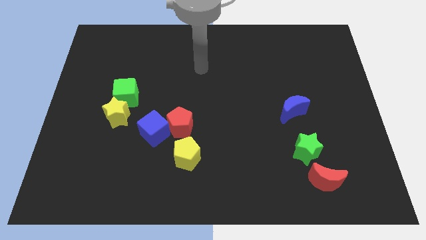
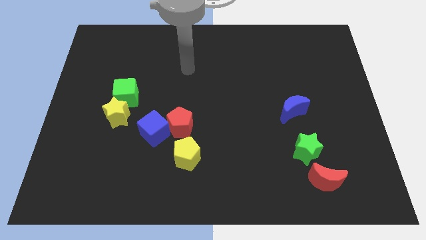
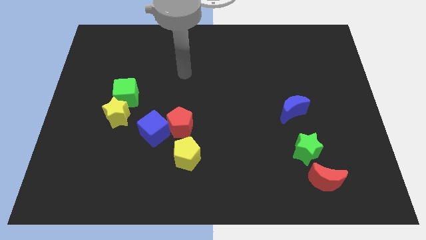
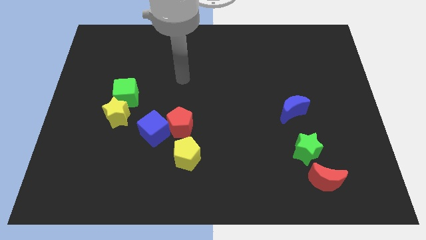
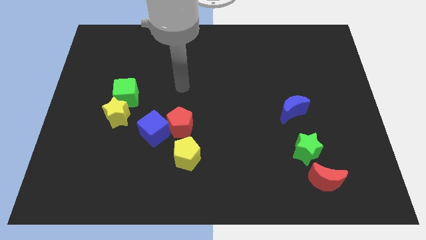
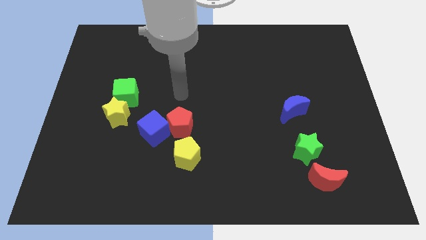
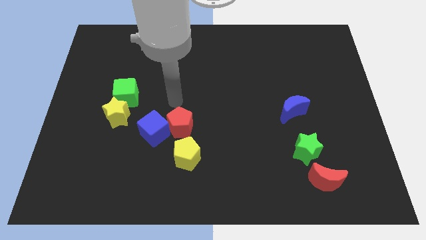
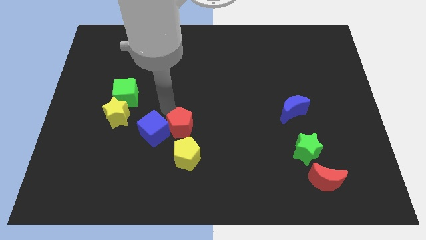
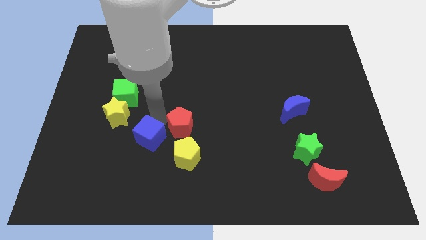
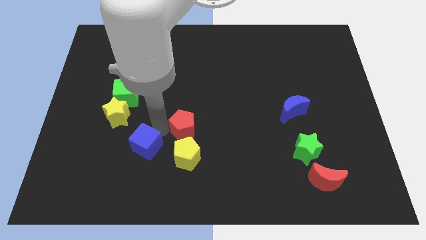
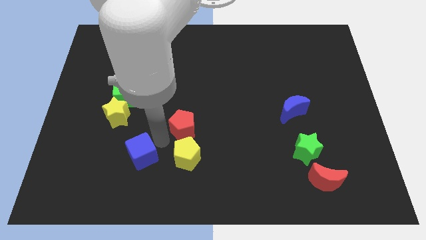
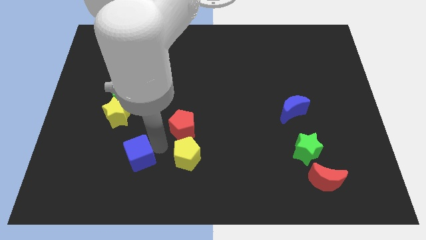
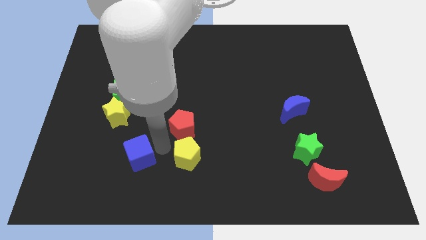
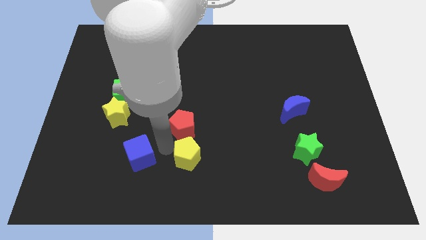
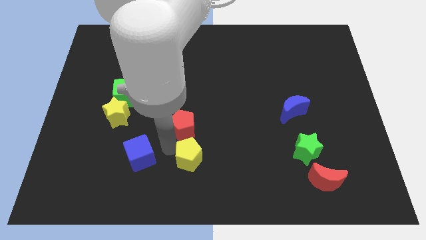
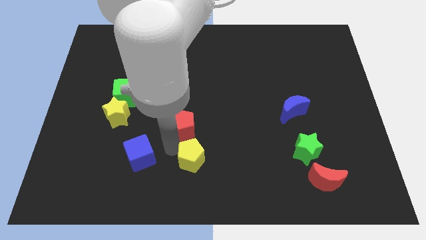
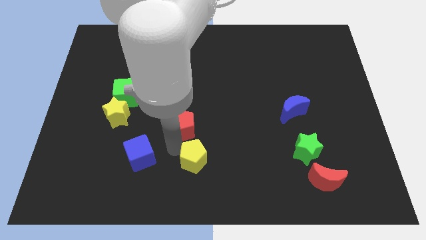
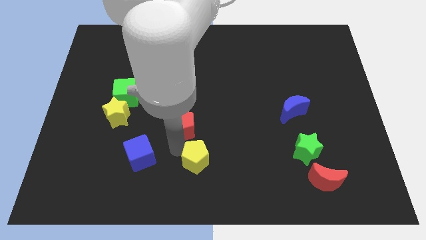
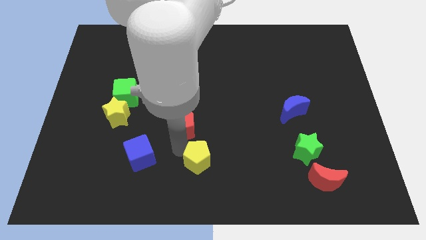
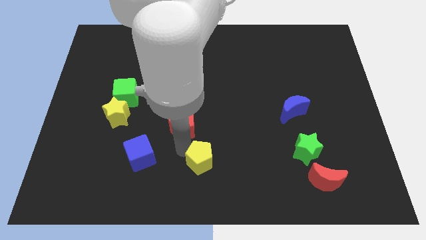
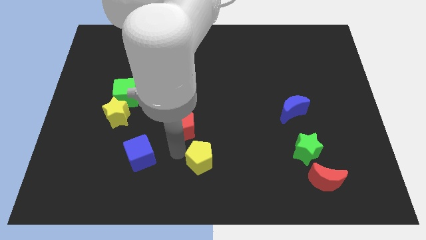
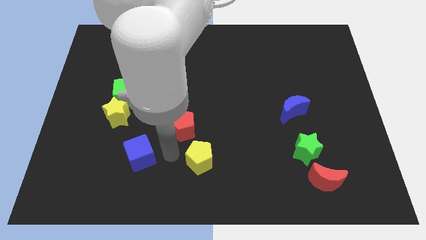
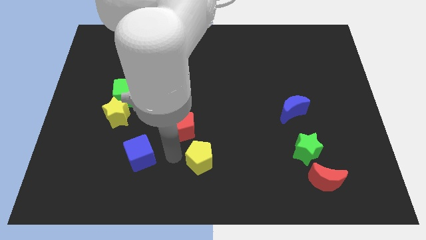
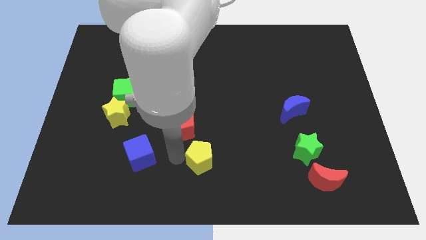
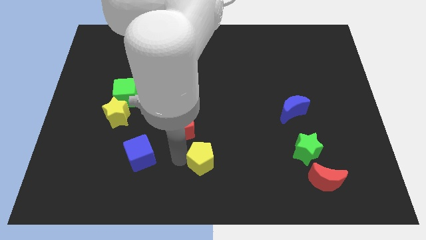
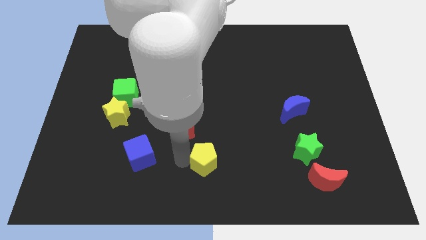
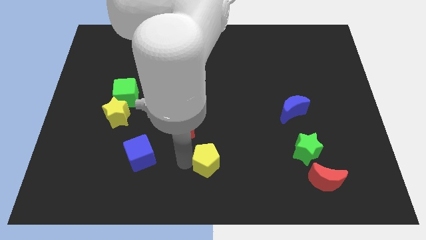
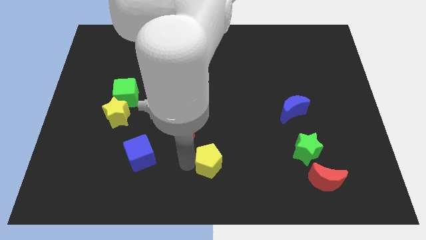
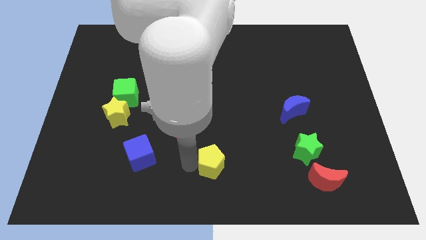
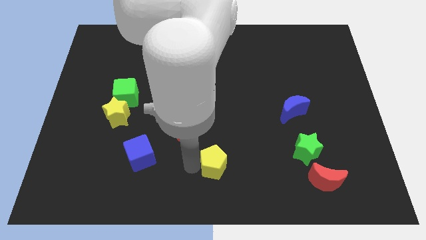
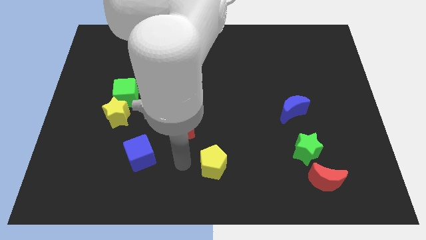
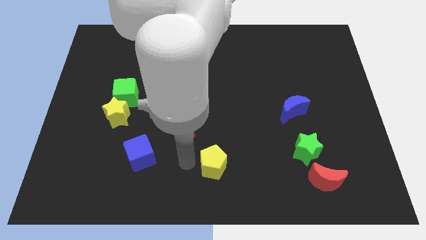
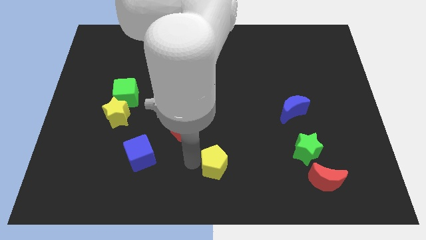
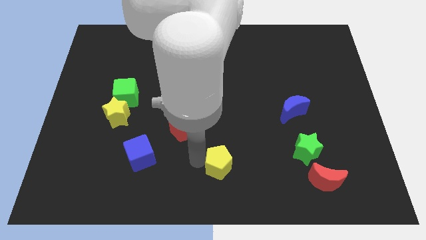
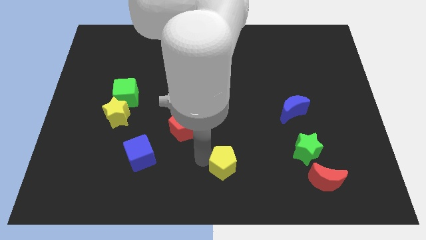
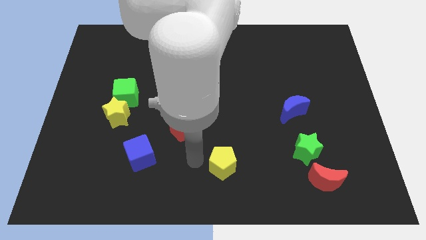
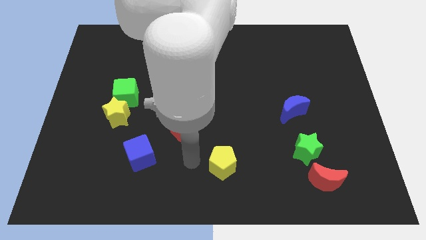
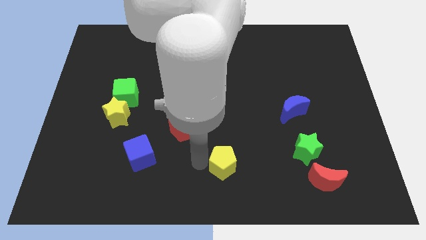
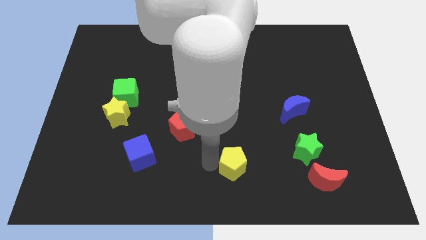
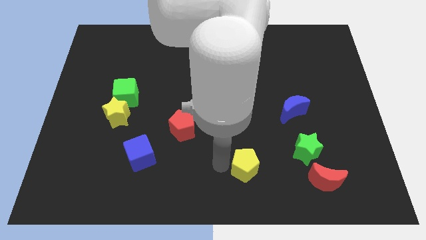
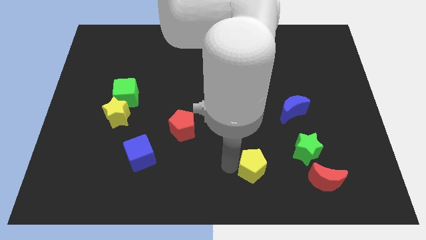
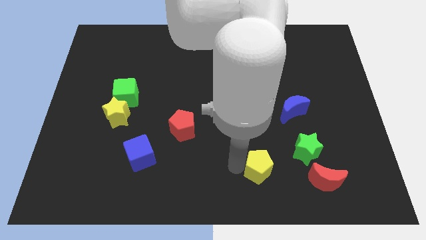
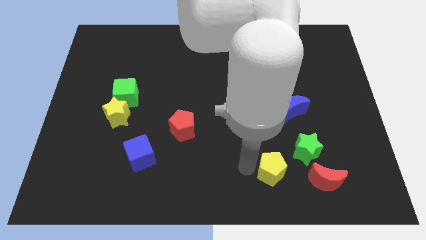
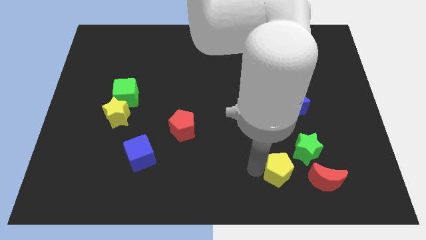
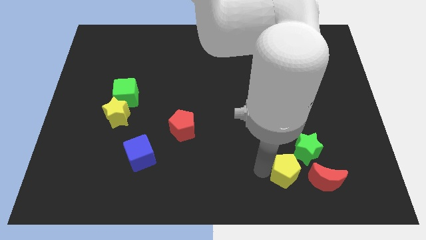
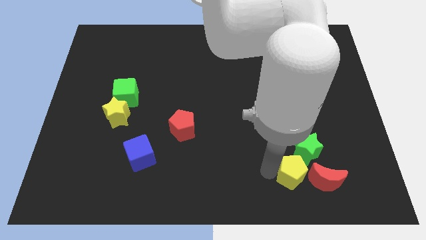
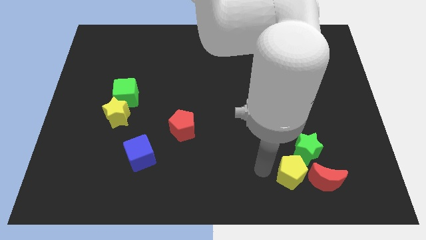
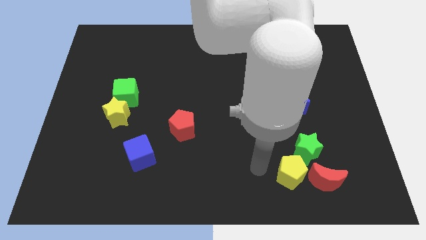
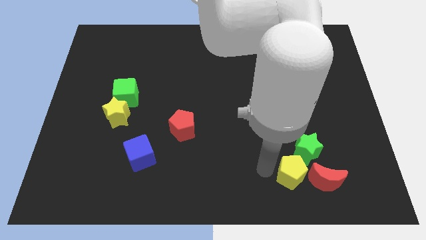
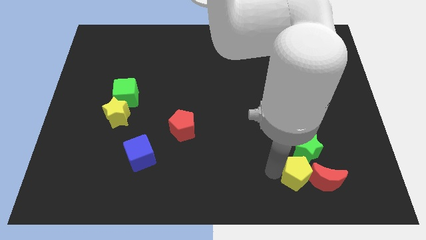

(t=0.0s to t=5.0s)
move the yellow pentagon towards the red moon

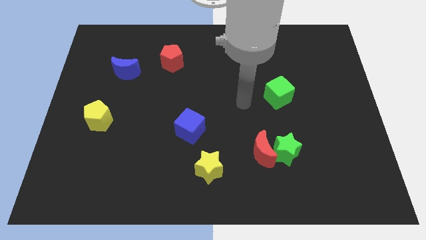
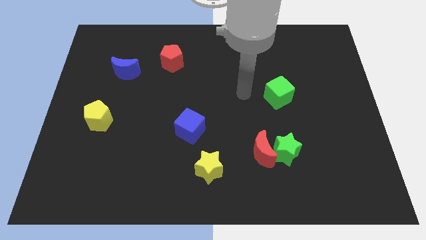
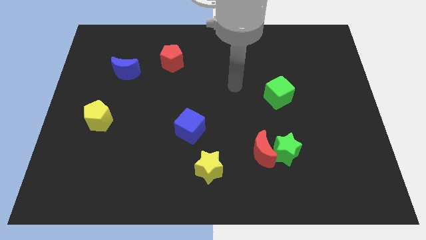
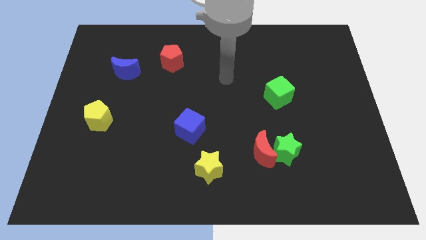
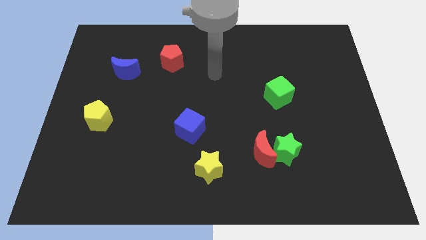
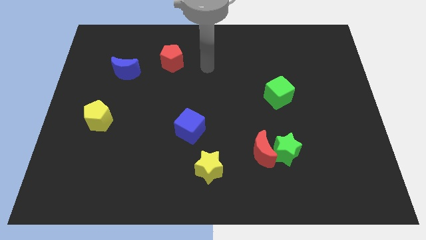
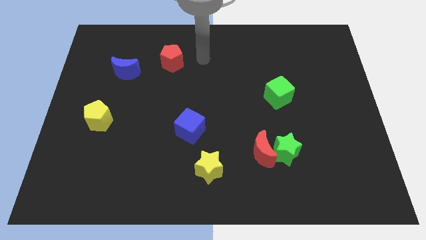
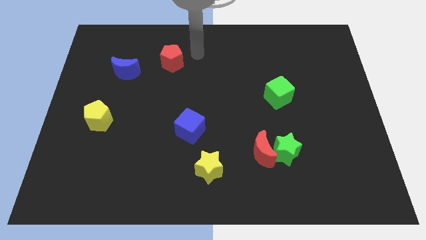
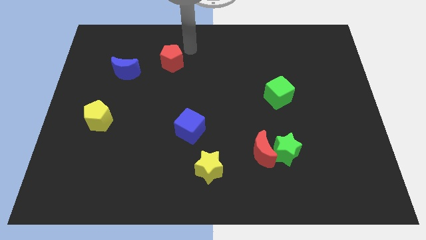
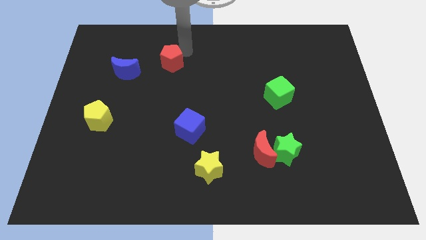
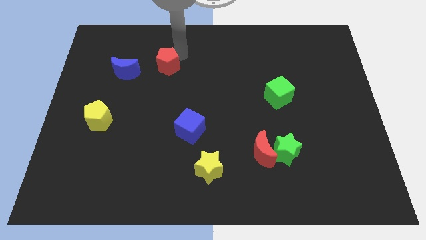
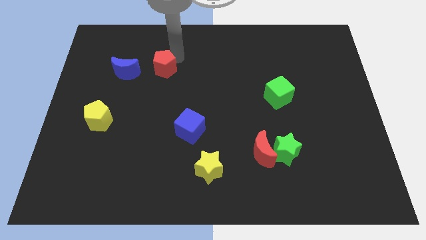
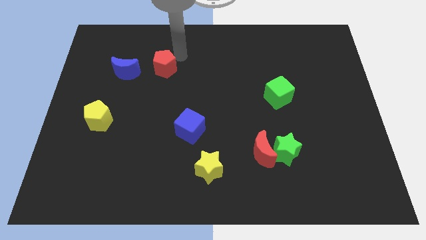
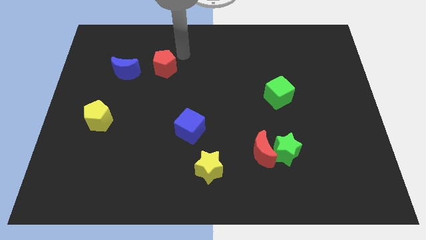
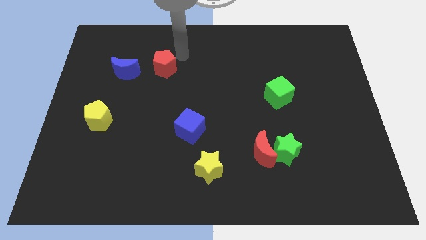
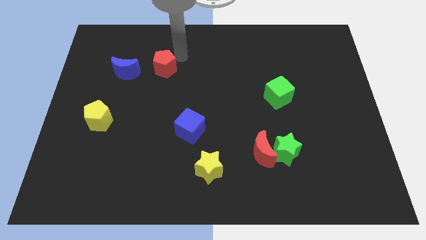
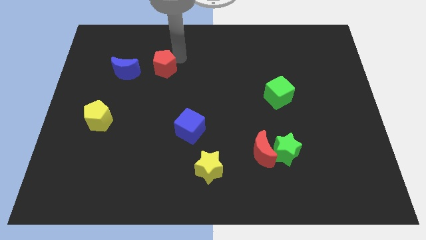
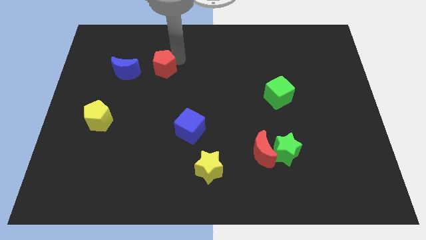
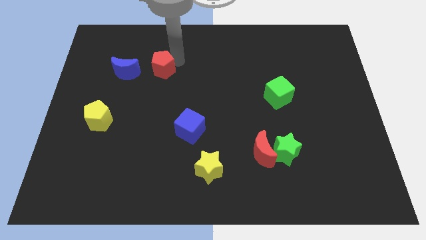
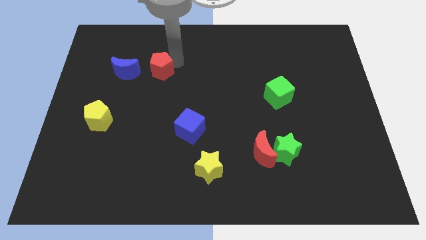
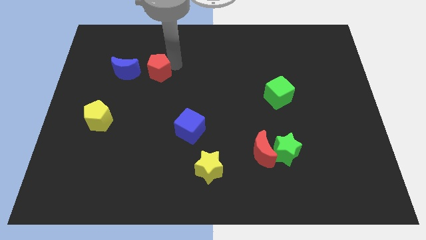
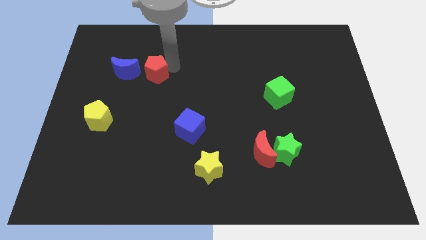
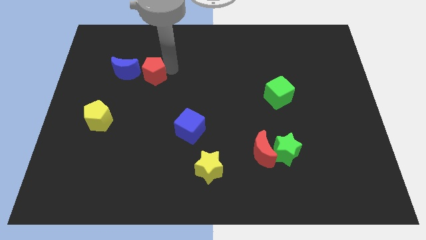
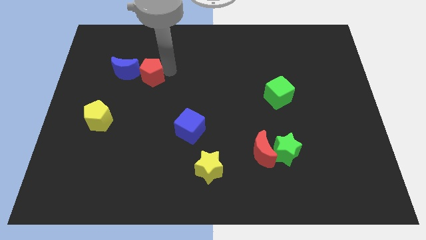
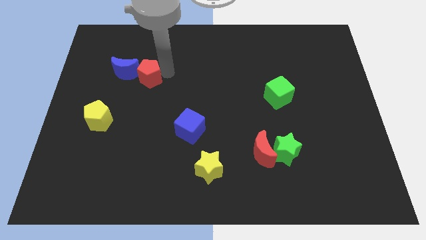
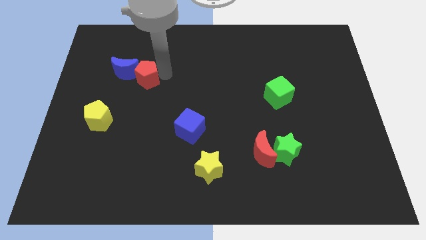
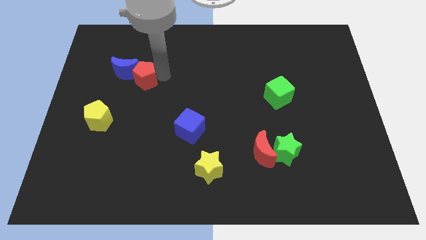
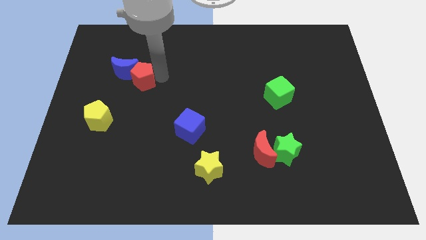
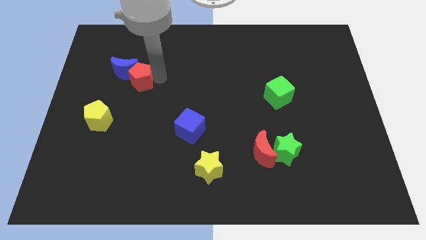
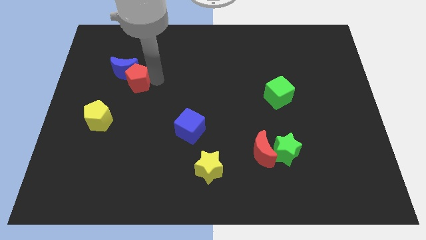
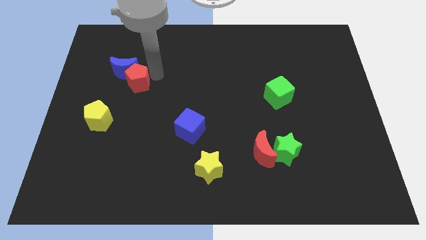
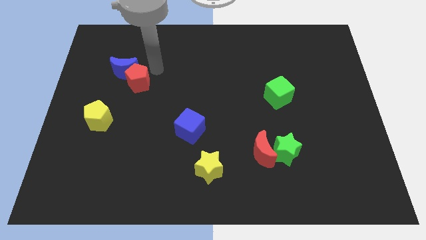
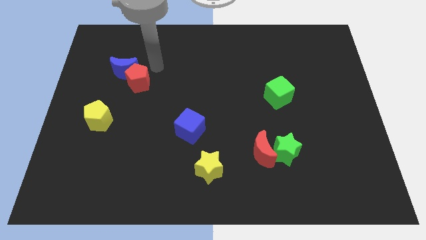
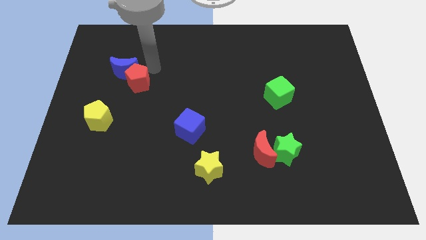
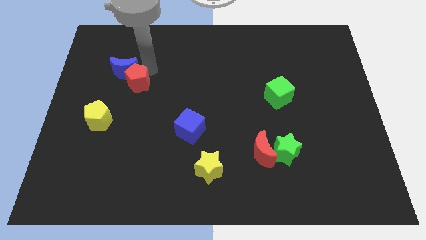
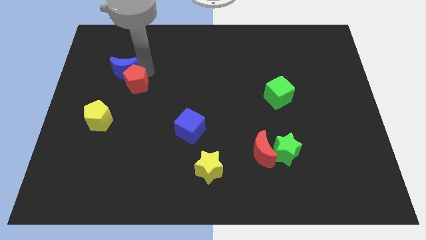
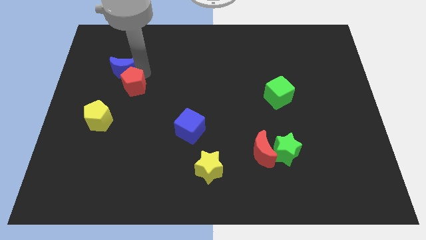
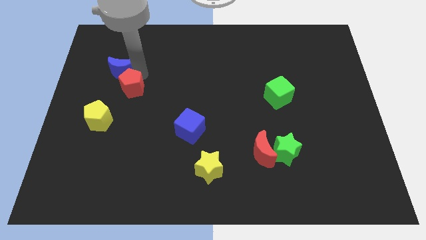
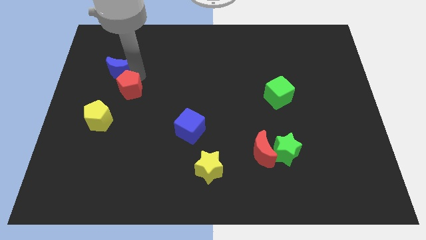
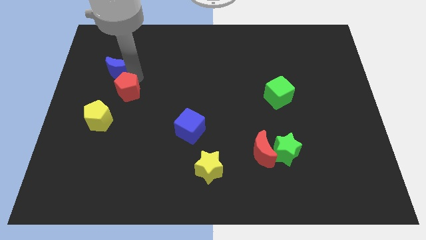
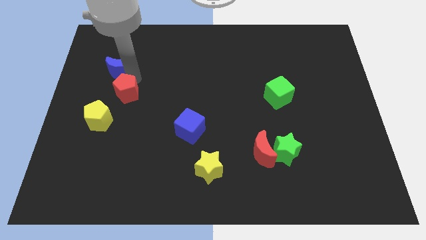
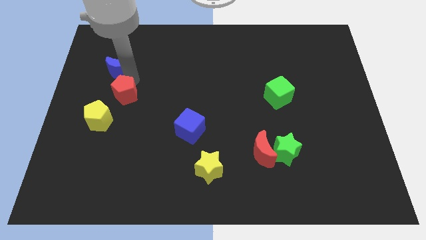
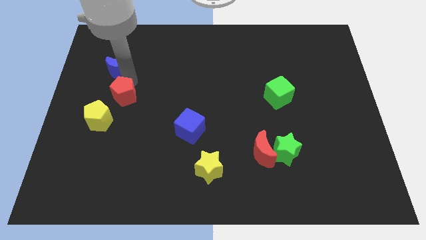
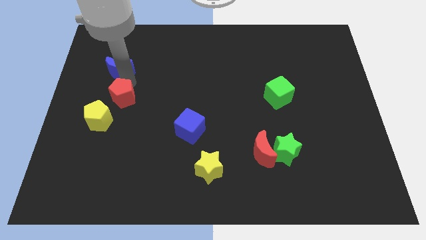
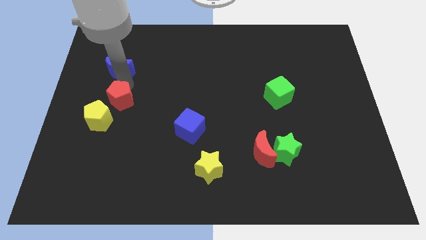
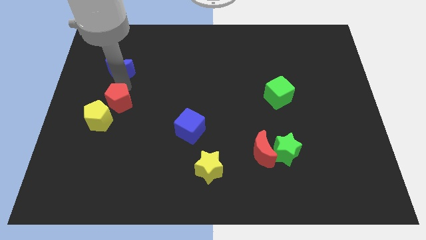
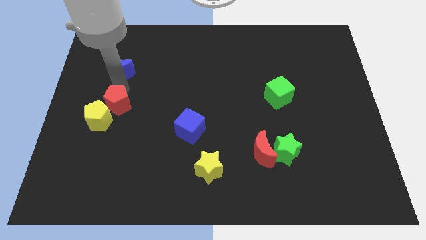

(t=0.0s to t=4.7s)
push the red pentagon towards the yellow pentagon
